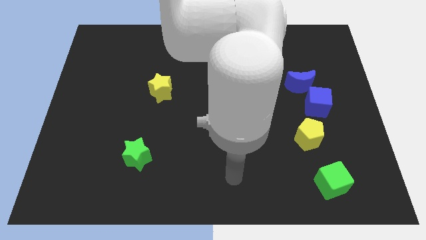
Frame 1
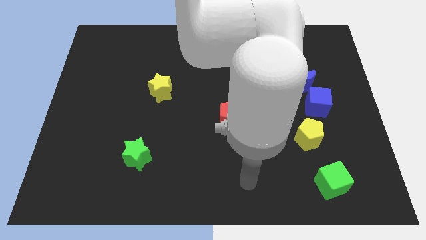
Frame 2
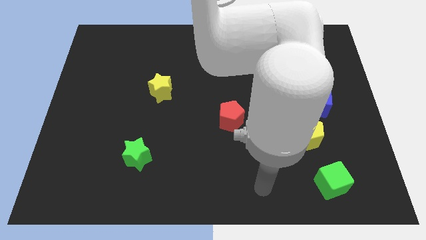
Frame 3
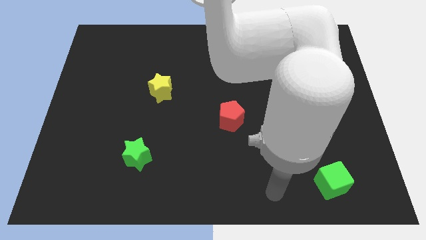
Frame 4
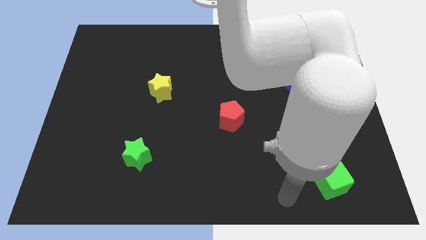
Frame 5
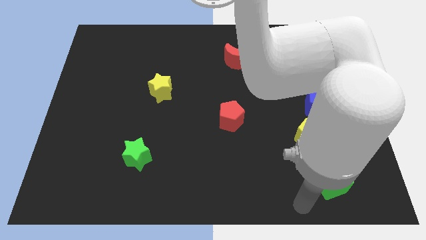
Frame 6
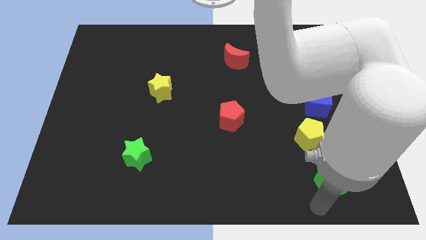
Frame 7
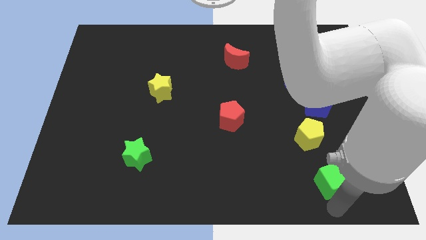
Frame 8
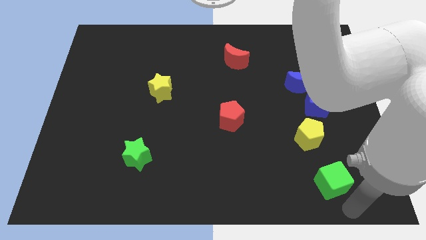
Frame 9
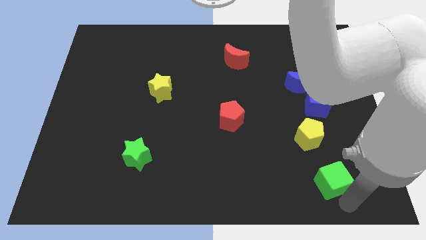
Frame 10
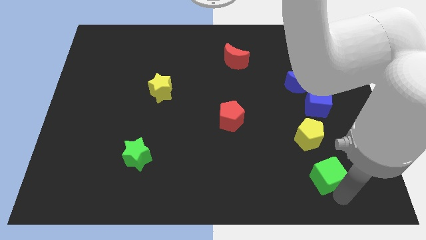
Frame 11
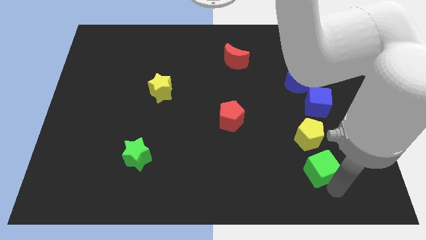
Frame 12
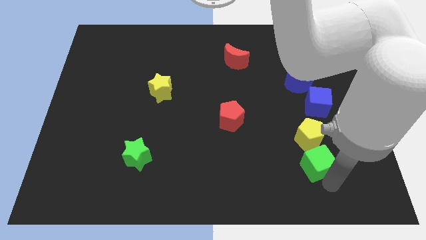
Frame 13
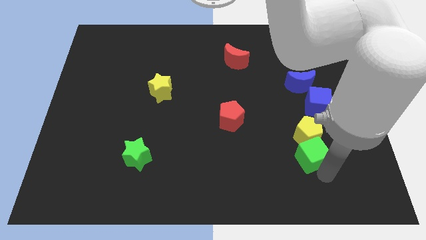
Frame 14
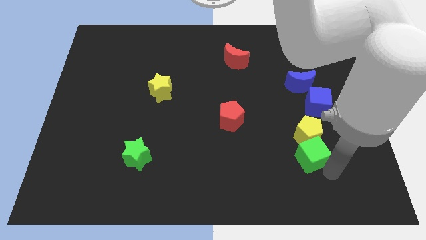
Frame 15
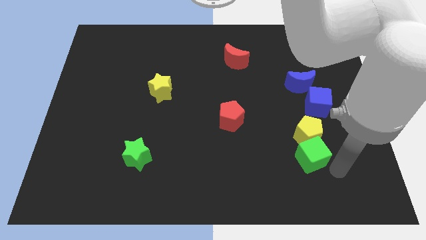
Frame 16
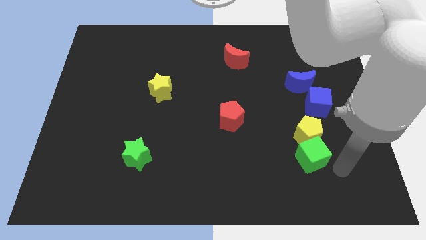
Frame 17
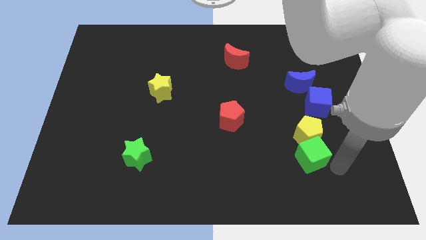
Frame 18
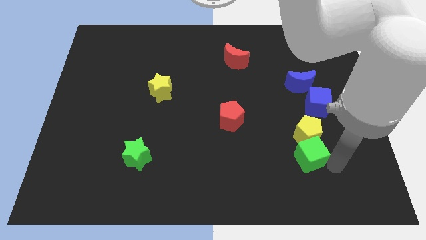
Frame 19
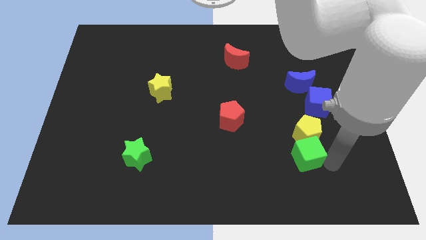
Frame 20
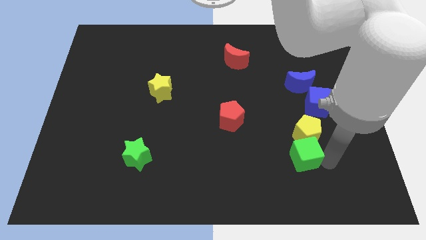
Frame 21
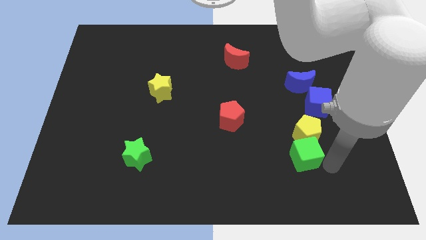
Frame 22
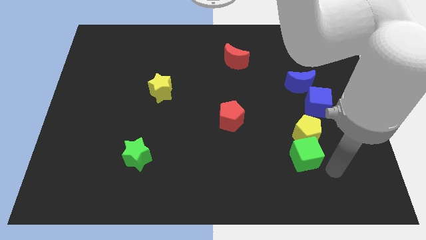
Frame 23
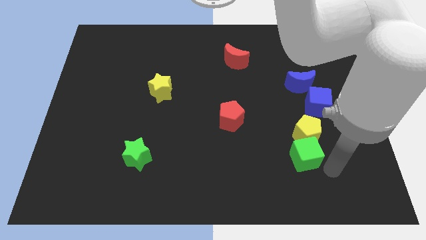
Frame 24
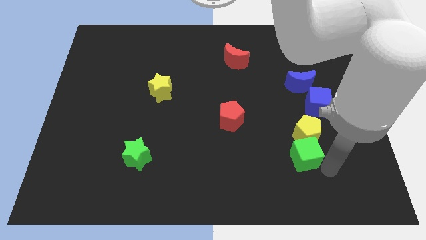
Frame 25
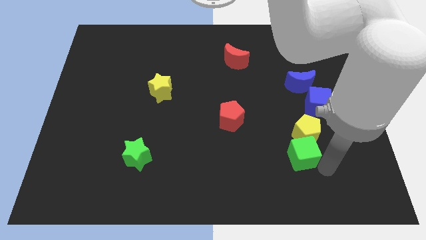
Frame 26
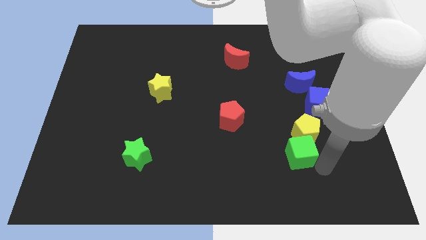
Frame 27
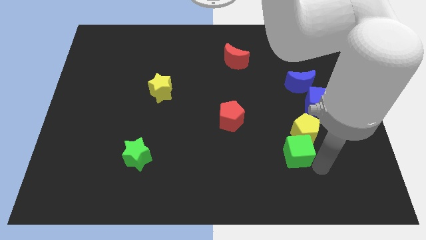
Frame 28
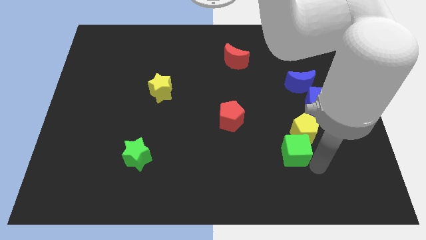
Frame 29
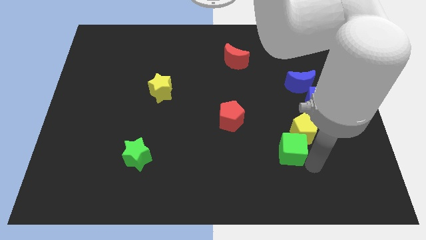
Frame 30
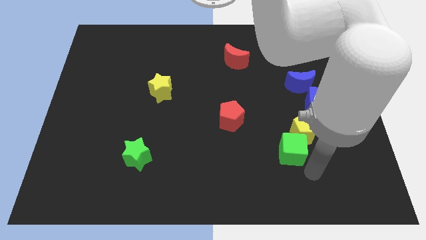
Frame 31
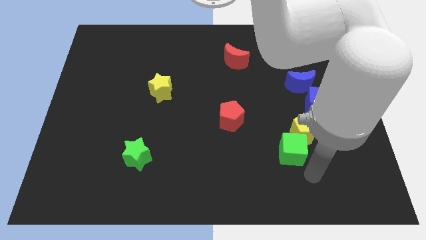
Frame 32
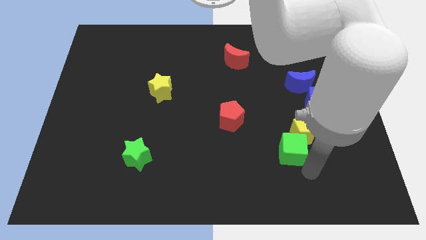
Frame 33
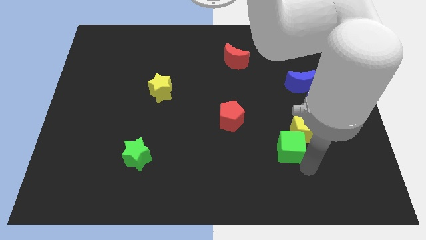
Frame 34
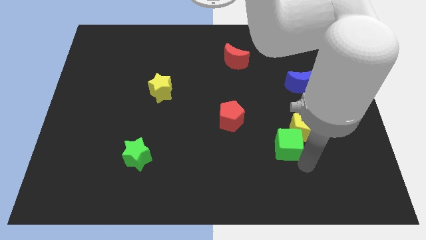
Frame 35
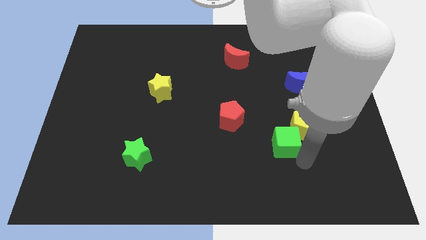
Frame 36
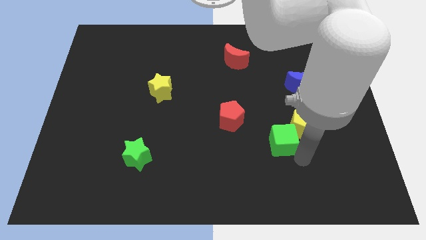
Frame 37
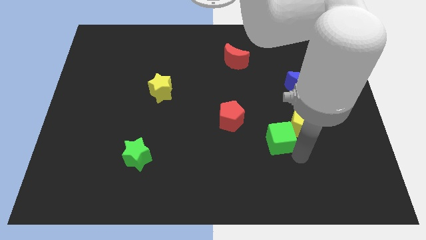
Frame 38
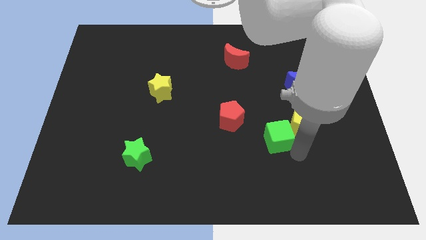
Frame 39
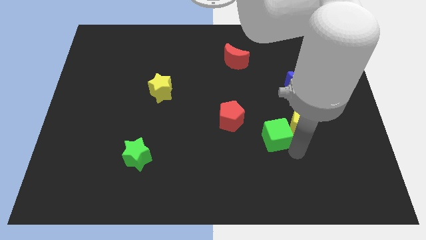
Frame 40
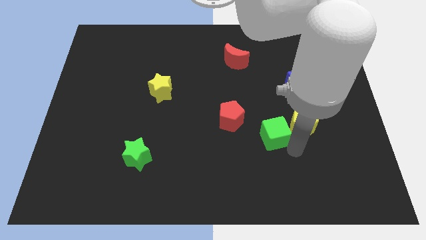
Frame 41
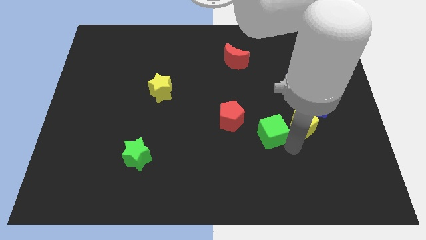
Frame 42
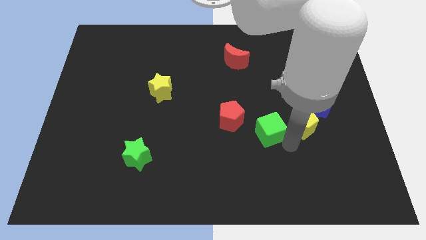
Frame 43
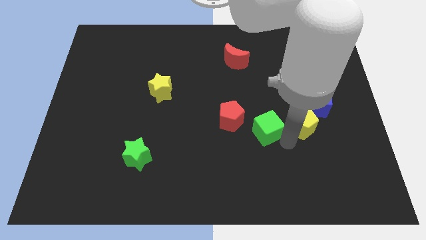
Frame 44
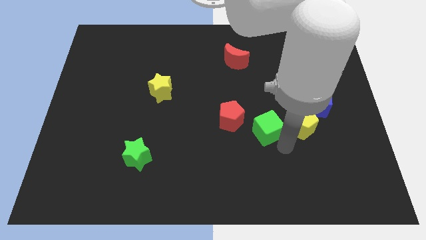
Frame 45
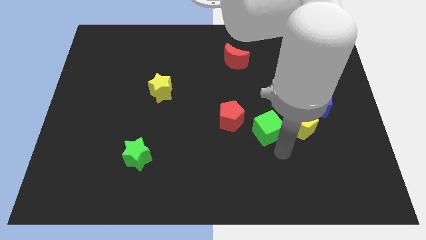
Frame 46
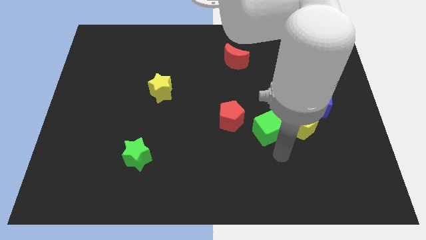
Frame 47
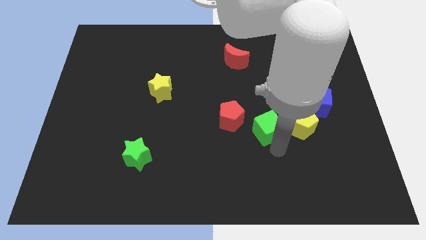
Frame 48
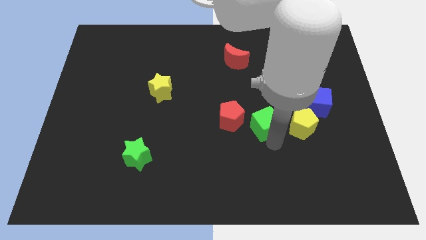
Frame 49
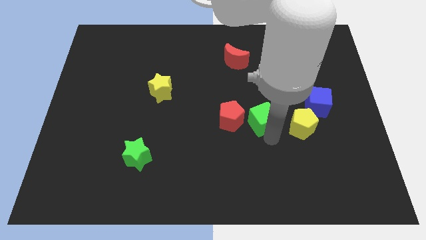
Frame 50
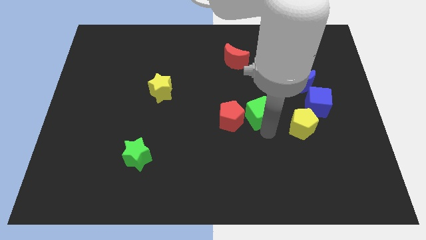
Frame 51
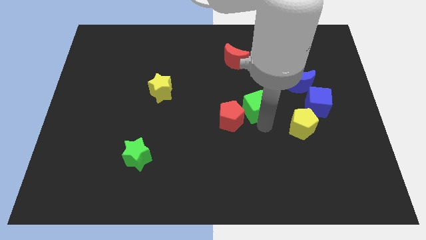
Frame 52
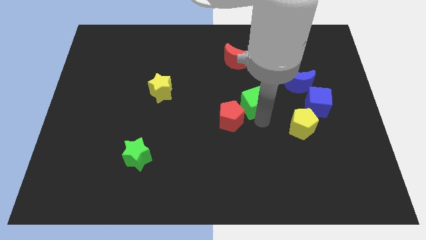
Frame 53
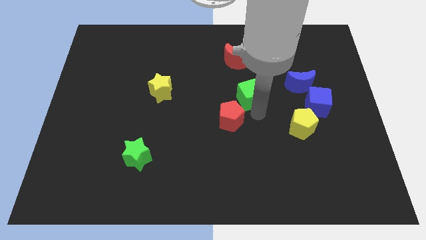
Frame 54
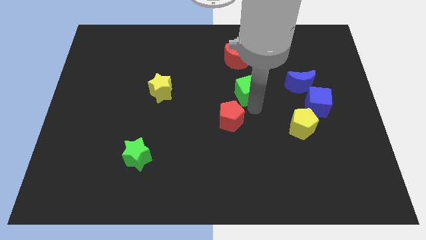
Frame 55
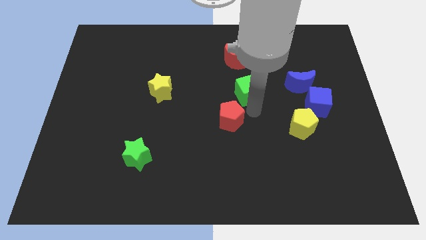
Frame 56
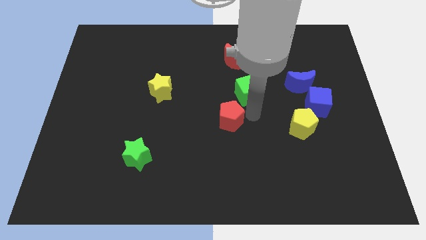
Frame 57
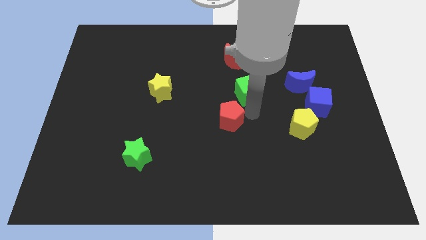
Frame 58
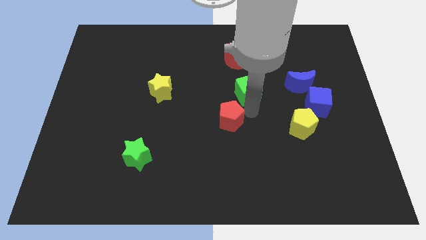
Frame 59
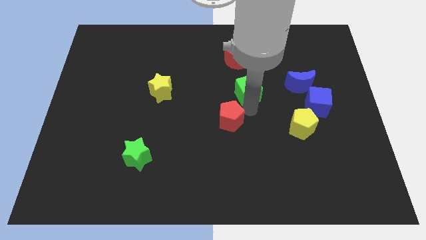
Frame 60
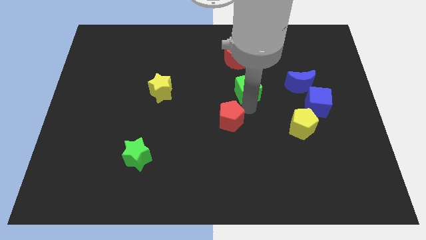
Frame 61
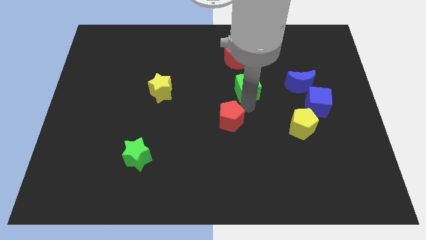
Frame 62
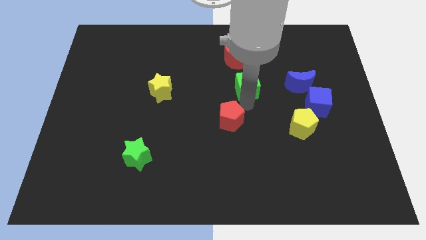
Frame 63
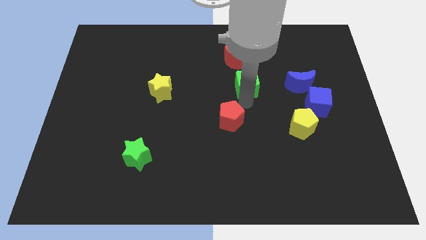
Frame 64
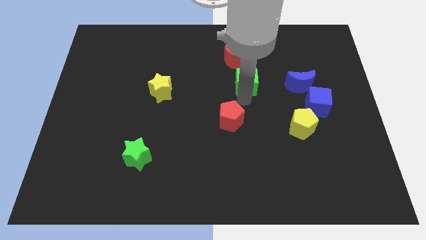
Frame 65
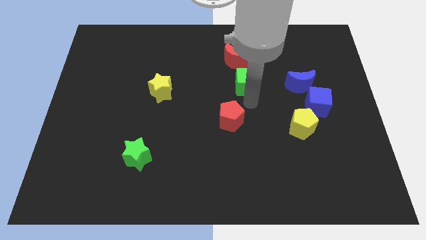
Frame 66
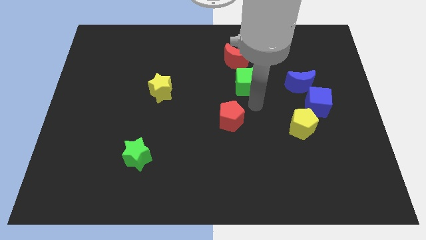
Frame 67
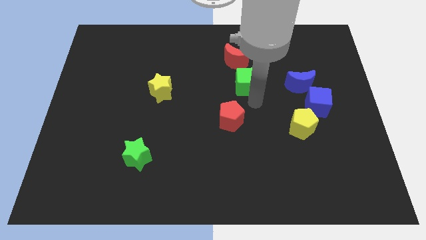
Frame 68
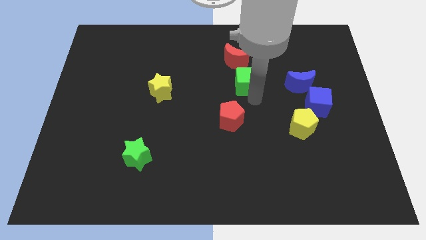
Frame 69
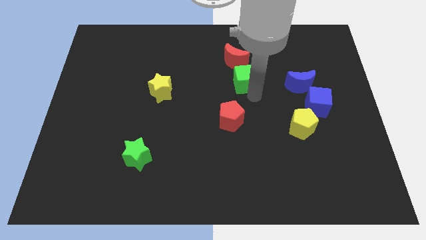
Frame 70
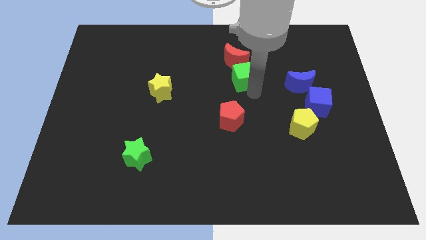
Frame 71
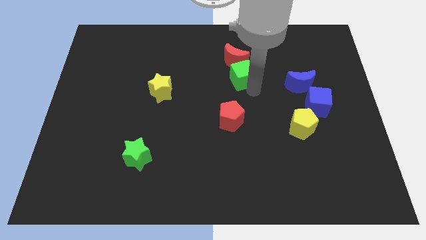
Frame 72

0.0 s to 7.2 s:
move the green cube next to the red moon

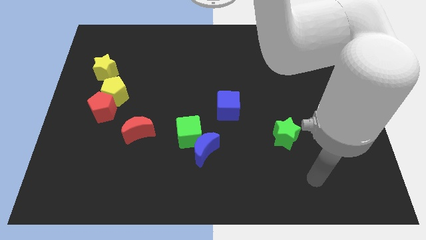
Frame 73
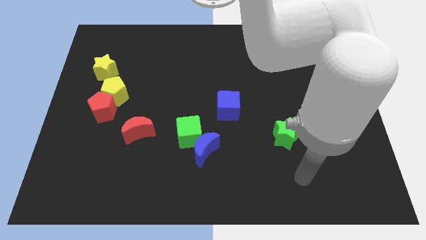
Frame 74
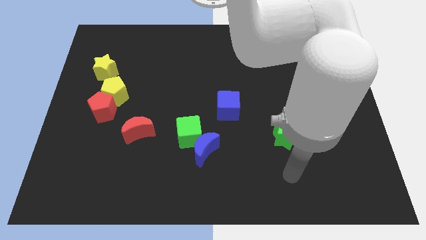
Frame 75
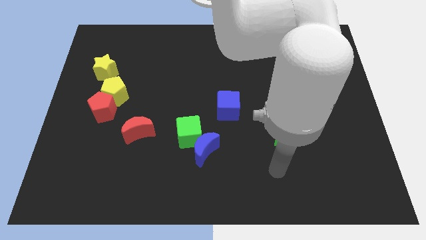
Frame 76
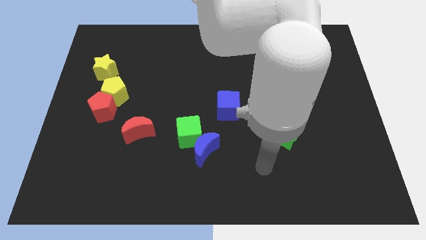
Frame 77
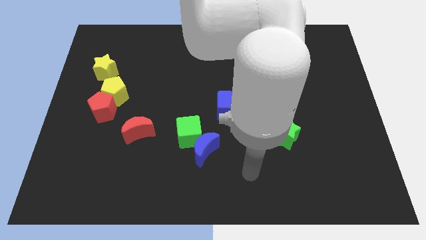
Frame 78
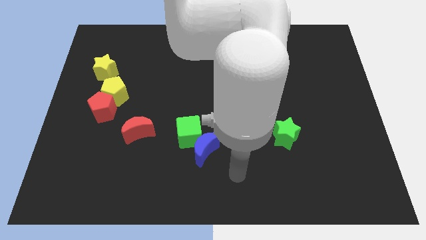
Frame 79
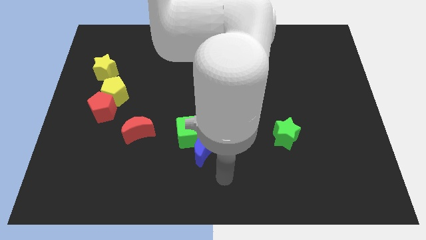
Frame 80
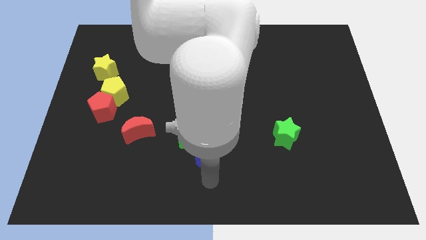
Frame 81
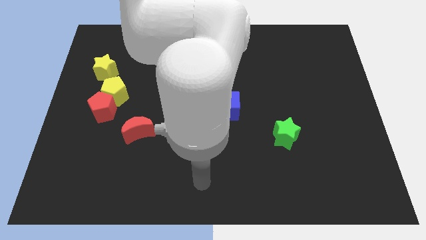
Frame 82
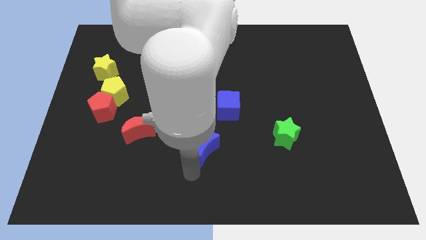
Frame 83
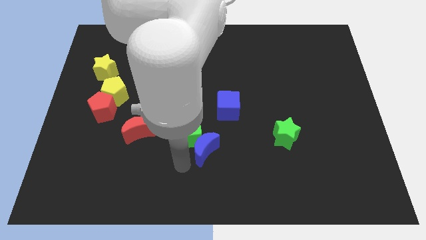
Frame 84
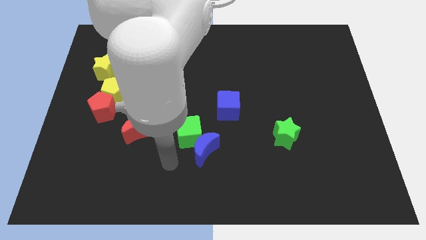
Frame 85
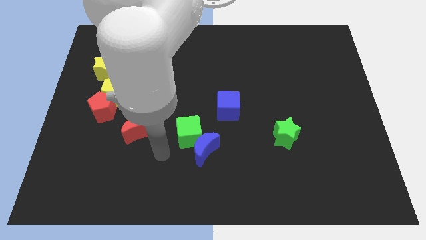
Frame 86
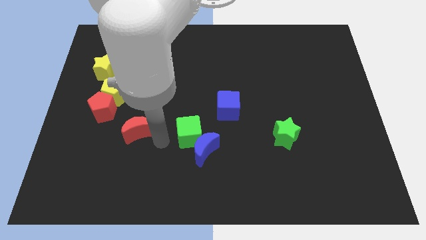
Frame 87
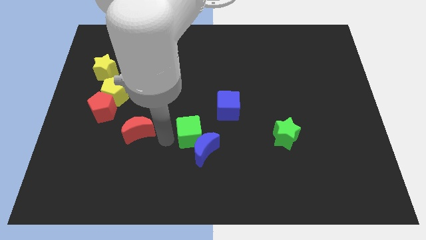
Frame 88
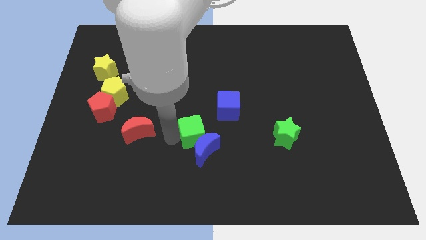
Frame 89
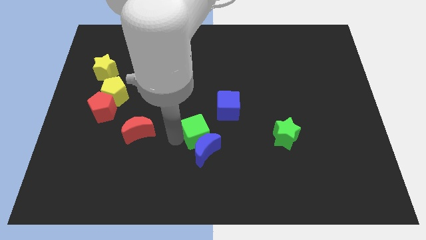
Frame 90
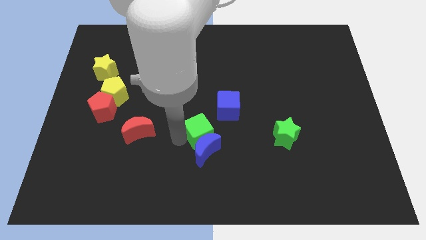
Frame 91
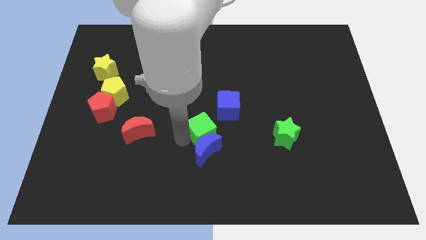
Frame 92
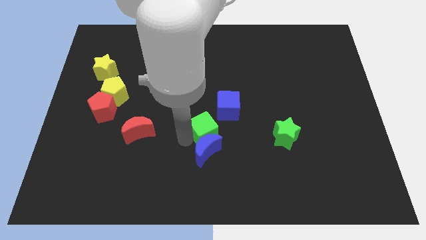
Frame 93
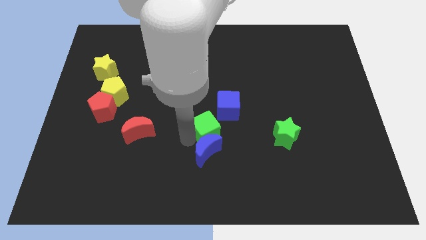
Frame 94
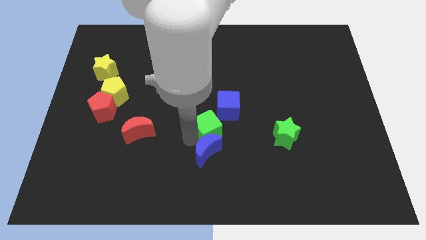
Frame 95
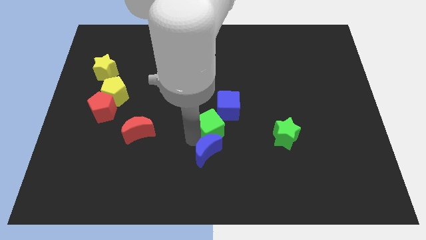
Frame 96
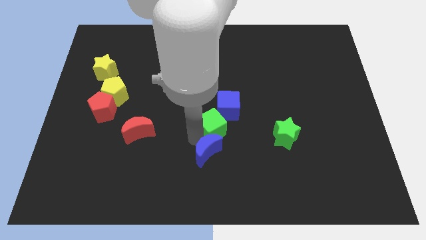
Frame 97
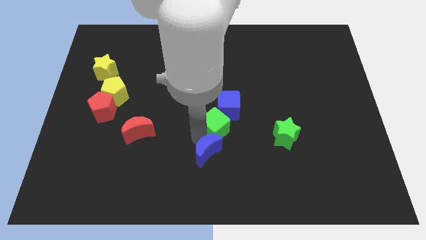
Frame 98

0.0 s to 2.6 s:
put the green cube towards the blue cube
